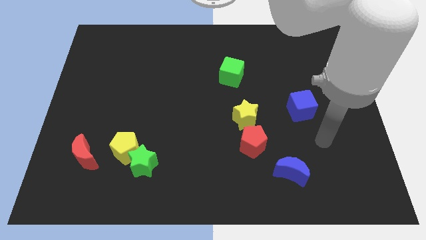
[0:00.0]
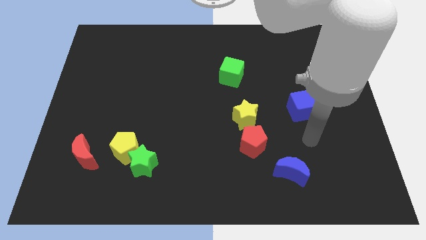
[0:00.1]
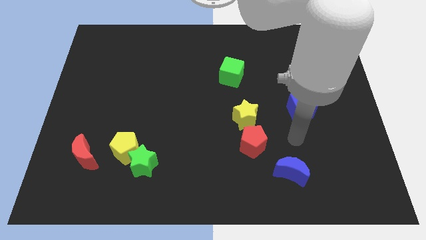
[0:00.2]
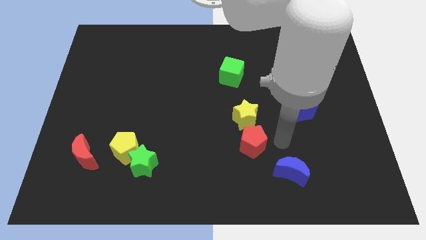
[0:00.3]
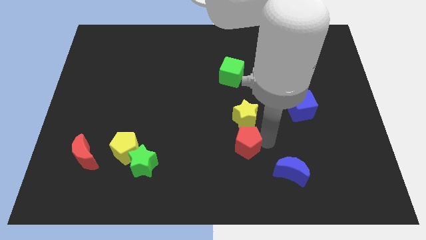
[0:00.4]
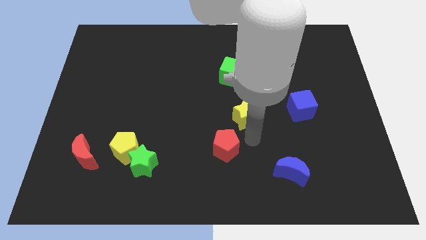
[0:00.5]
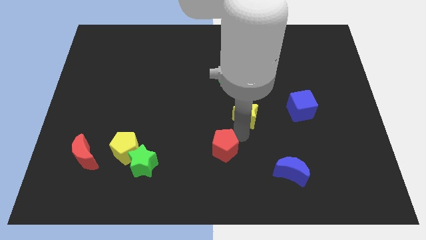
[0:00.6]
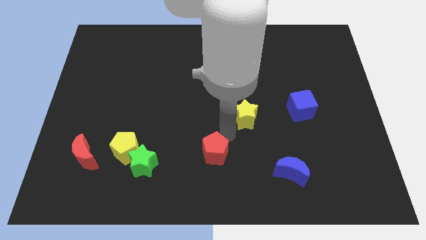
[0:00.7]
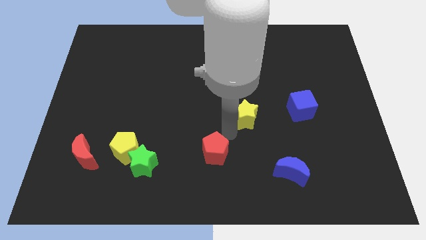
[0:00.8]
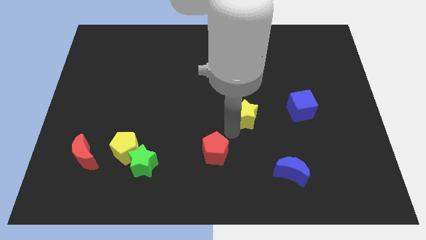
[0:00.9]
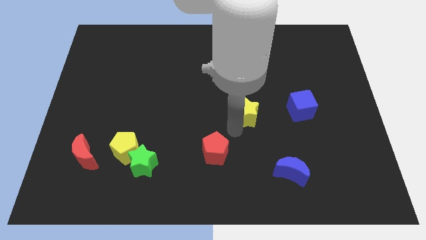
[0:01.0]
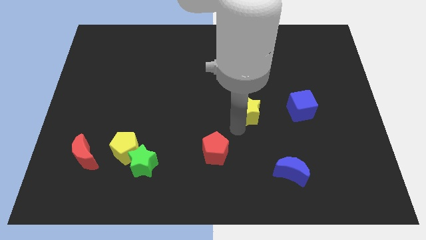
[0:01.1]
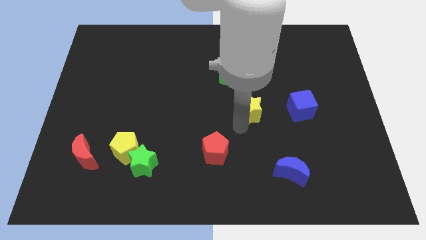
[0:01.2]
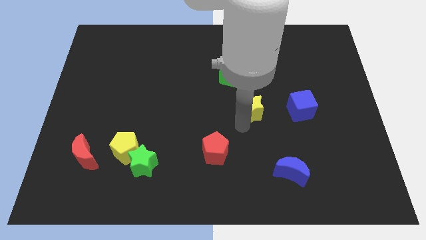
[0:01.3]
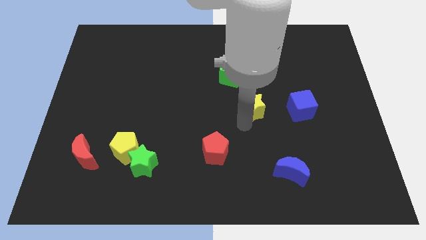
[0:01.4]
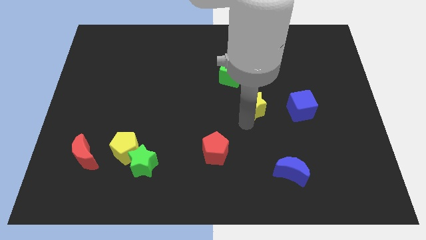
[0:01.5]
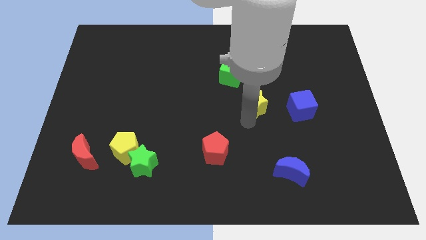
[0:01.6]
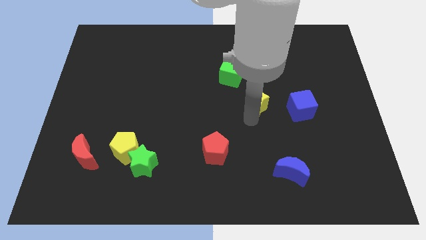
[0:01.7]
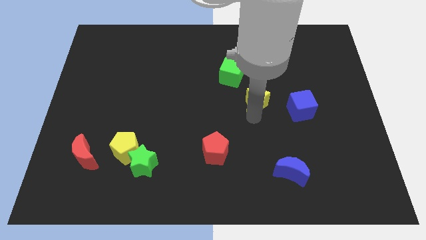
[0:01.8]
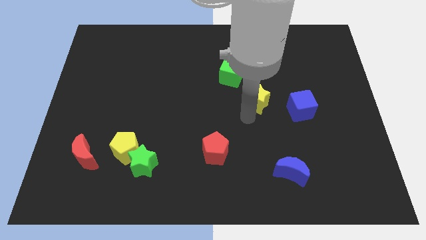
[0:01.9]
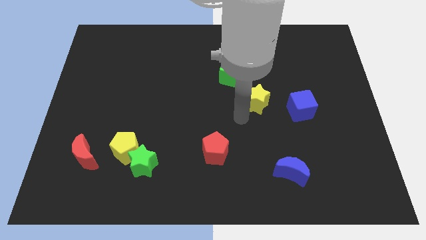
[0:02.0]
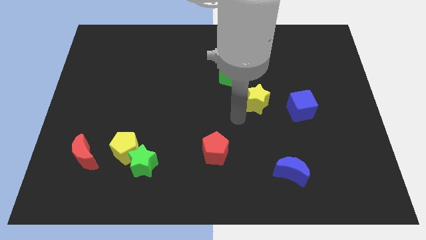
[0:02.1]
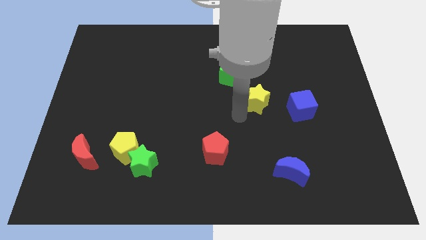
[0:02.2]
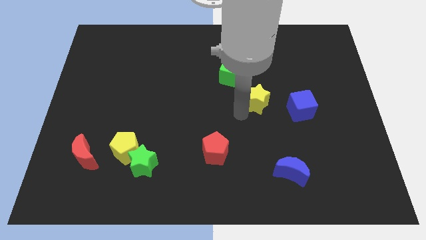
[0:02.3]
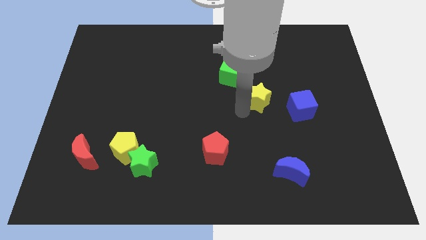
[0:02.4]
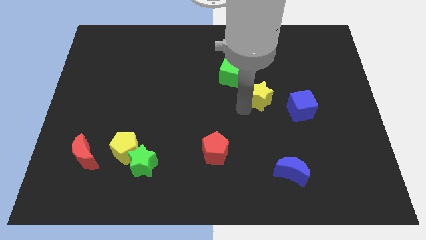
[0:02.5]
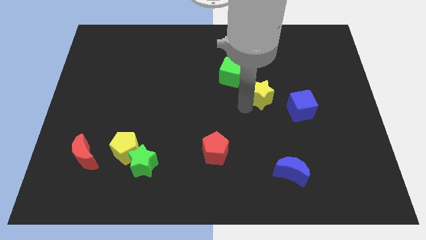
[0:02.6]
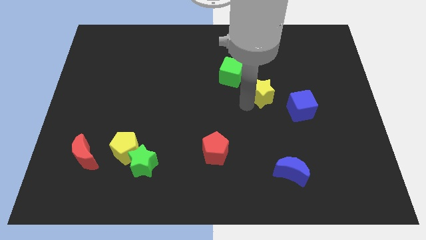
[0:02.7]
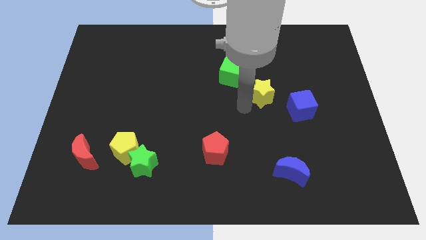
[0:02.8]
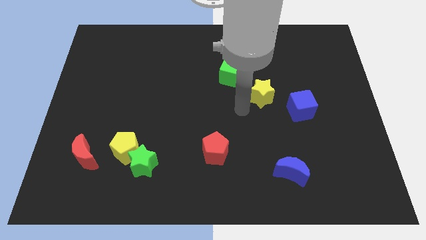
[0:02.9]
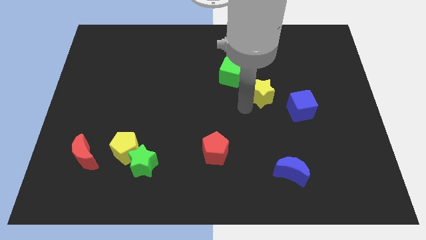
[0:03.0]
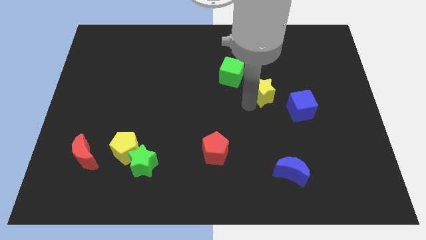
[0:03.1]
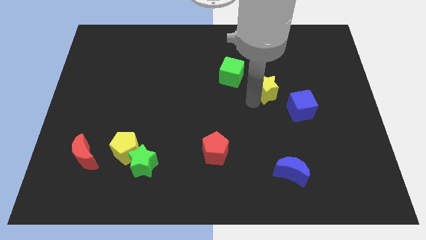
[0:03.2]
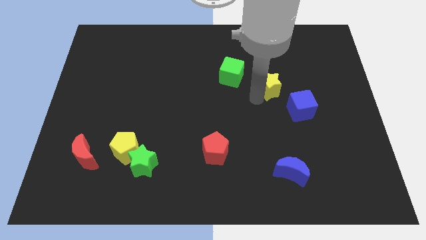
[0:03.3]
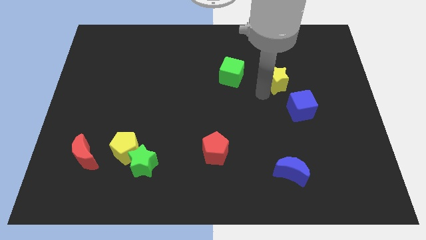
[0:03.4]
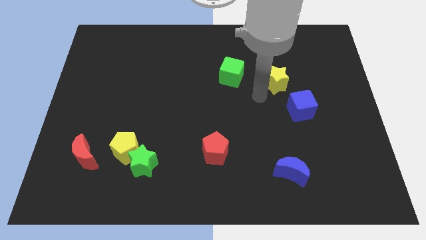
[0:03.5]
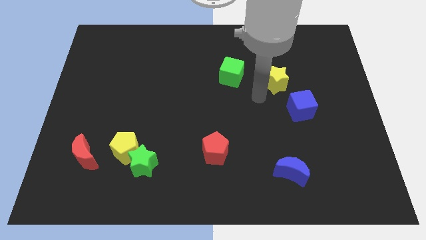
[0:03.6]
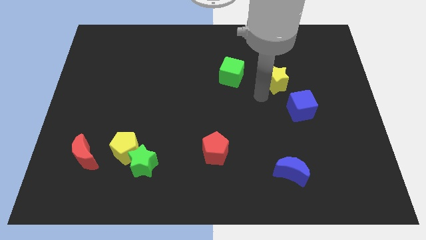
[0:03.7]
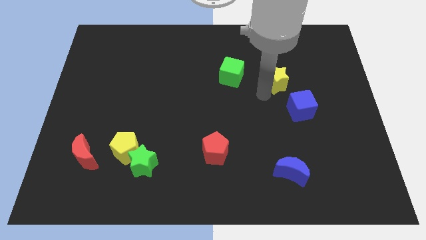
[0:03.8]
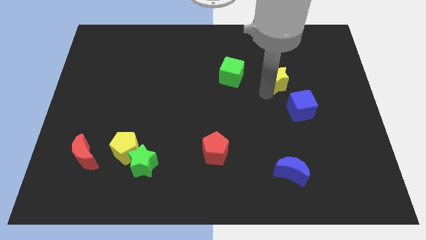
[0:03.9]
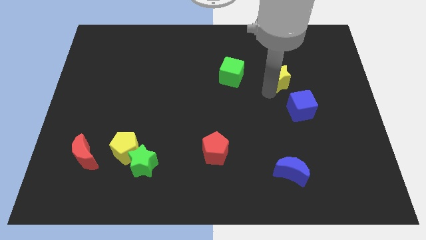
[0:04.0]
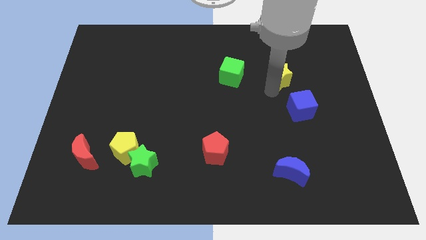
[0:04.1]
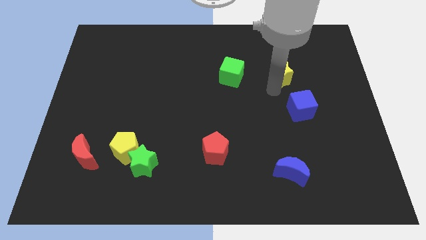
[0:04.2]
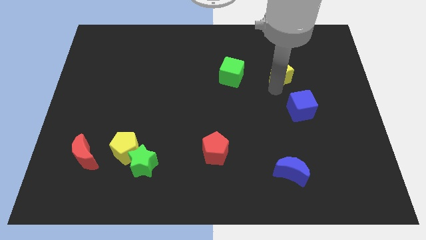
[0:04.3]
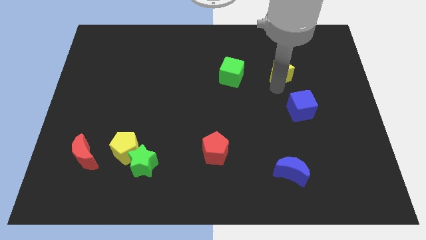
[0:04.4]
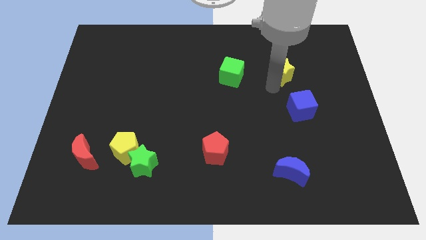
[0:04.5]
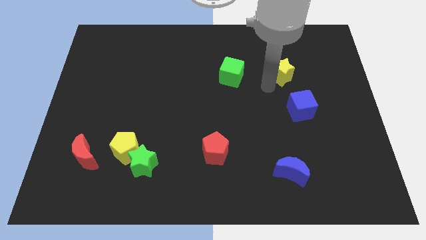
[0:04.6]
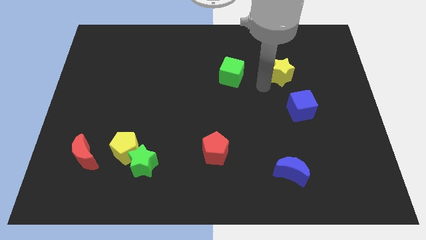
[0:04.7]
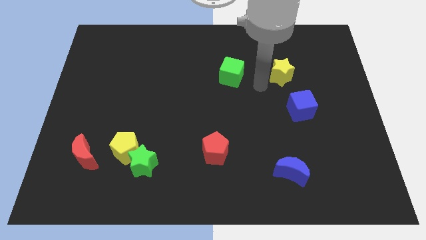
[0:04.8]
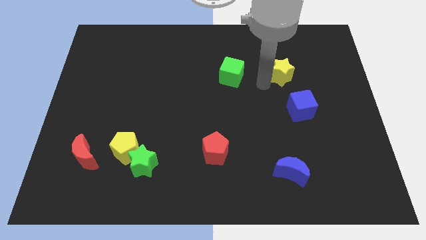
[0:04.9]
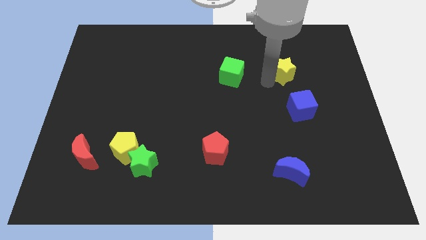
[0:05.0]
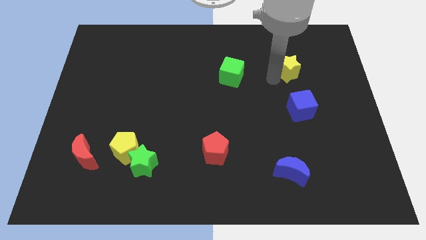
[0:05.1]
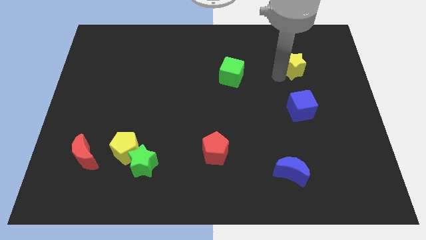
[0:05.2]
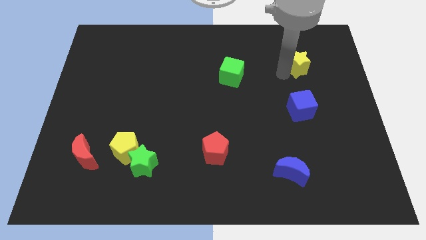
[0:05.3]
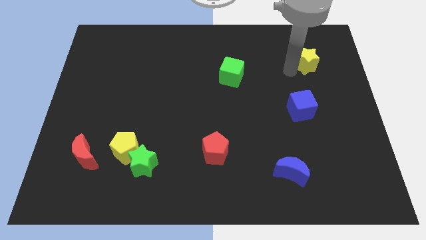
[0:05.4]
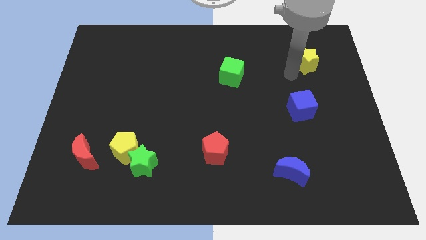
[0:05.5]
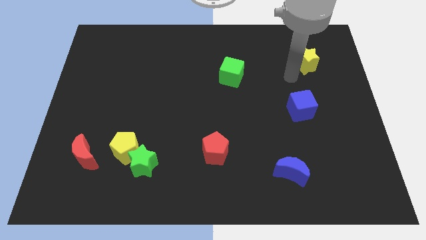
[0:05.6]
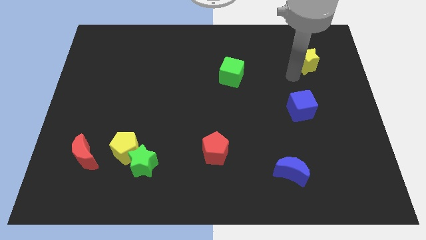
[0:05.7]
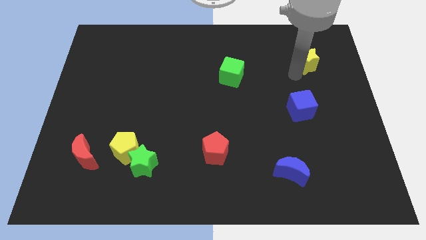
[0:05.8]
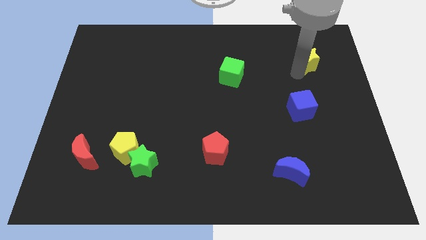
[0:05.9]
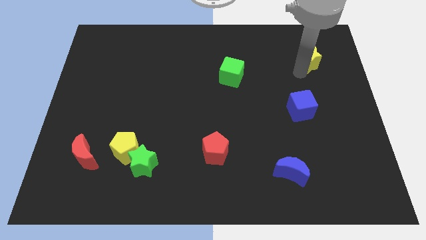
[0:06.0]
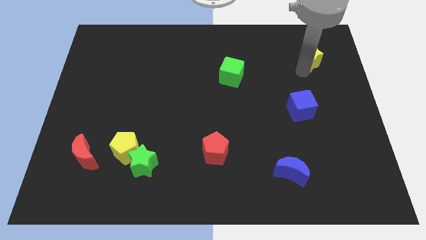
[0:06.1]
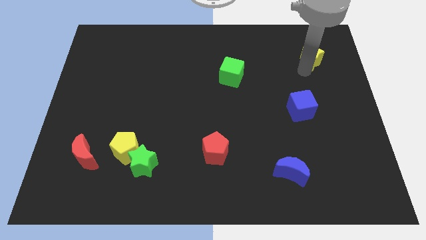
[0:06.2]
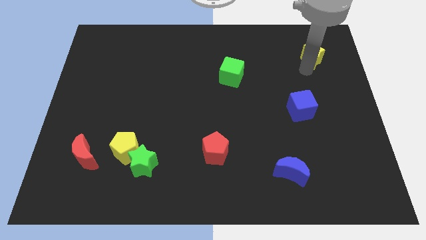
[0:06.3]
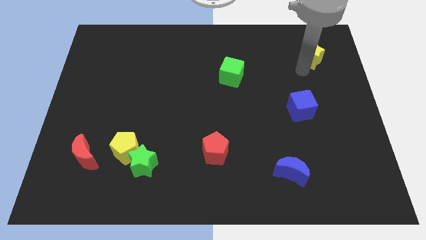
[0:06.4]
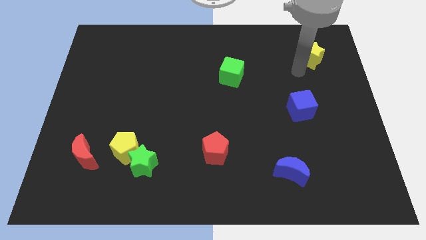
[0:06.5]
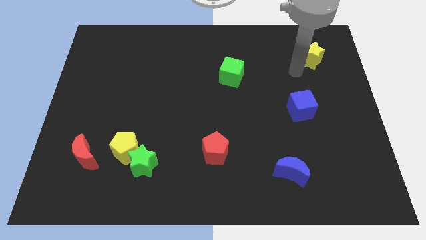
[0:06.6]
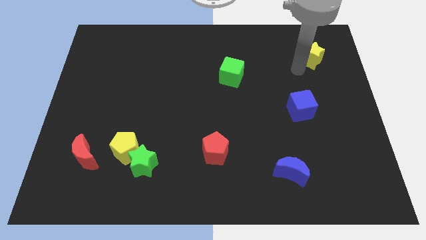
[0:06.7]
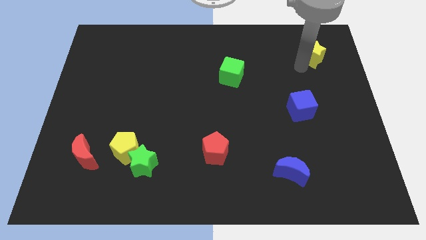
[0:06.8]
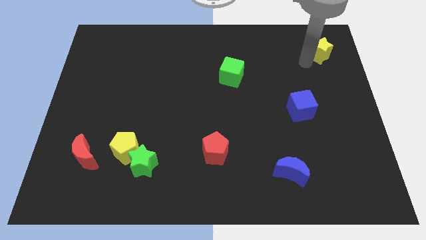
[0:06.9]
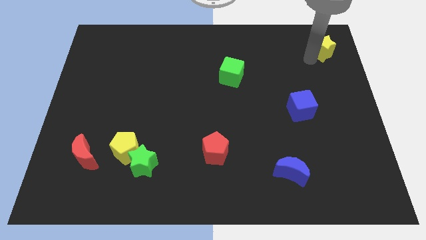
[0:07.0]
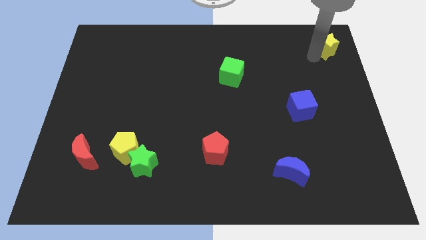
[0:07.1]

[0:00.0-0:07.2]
put the yellow star to the upper right corner
